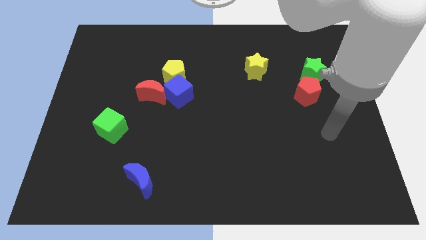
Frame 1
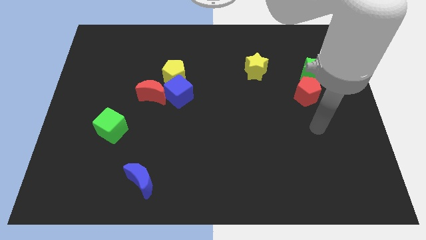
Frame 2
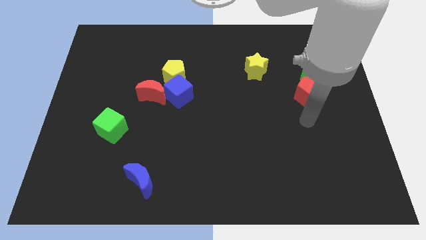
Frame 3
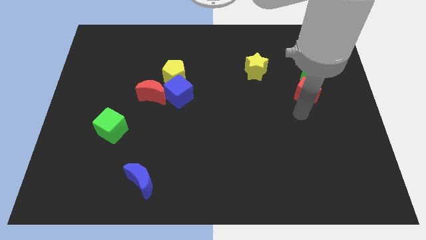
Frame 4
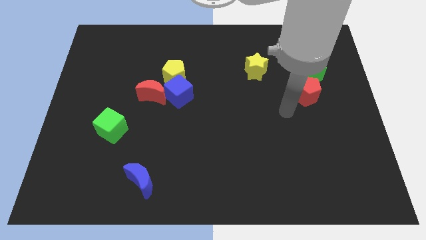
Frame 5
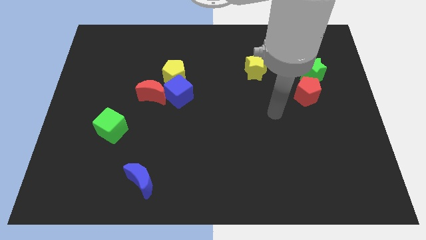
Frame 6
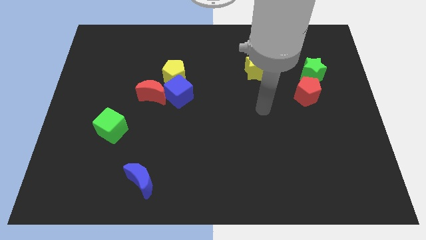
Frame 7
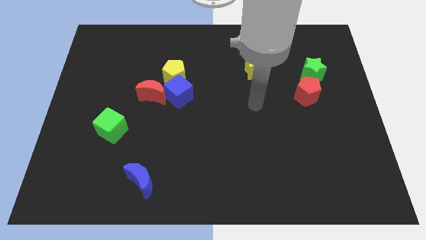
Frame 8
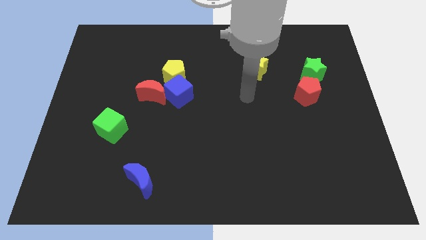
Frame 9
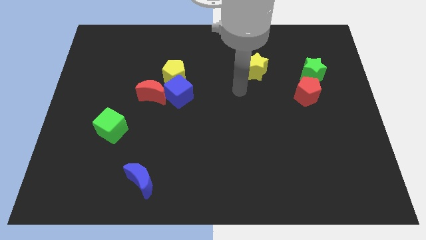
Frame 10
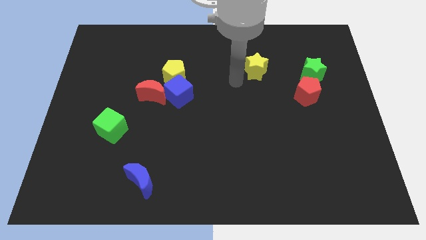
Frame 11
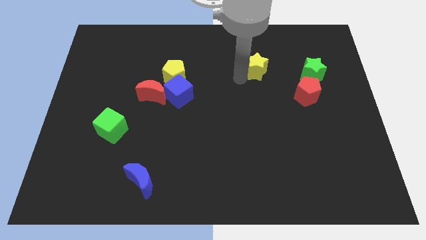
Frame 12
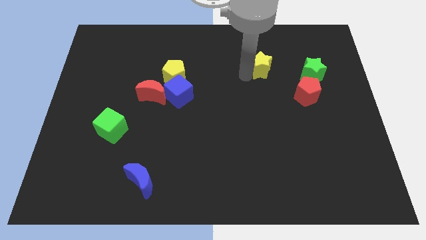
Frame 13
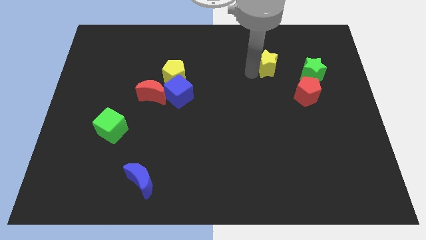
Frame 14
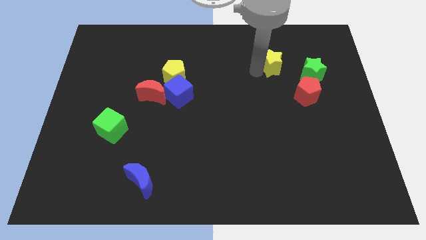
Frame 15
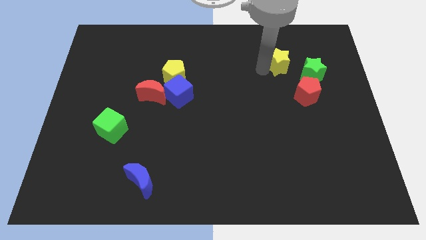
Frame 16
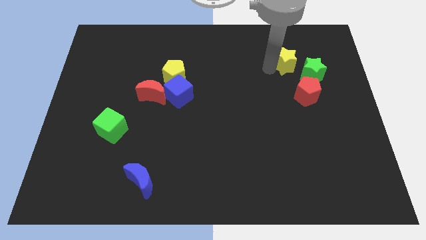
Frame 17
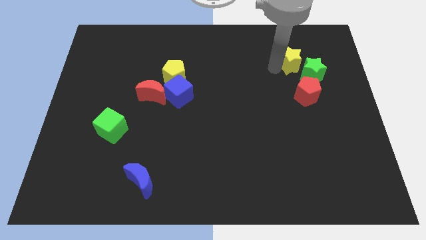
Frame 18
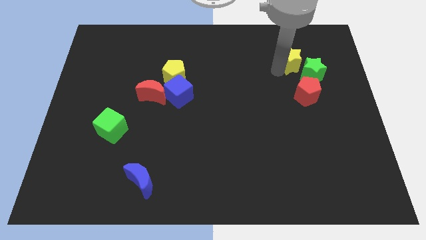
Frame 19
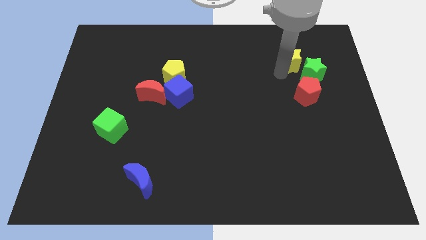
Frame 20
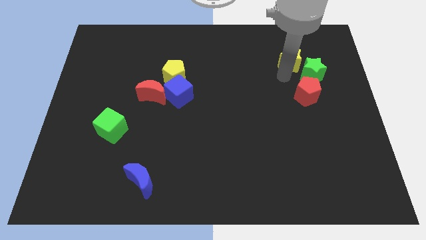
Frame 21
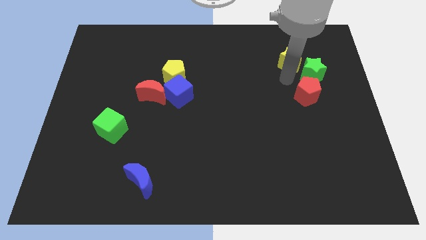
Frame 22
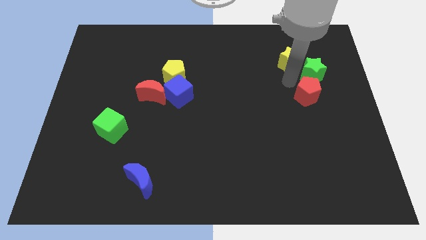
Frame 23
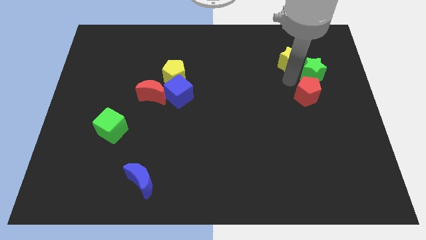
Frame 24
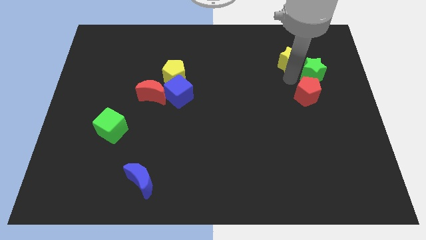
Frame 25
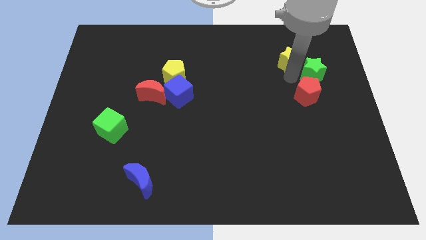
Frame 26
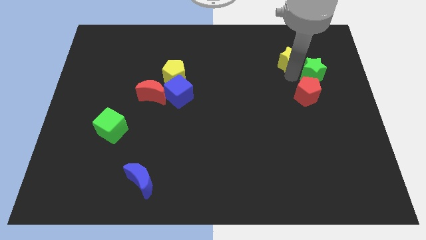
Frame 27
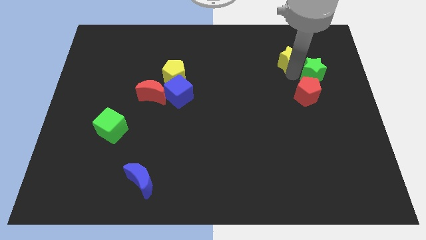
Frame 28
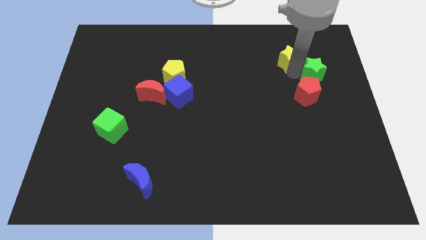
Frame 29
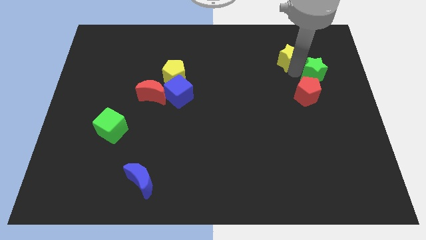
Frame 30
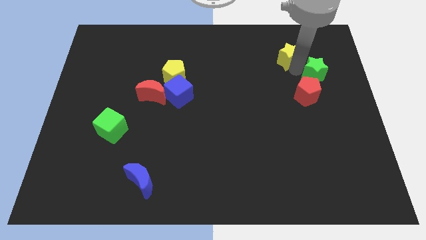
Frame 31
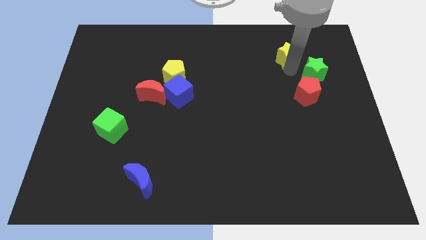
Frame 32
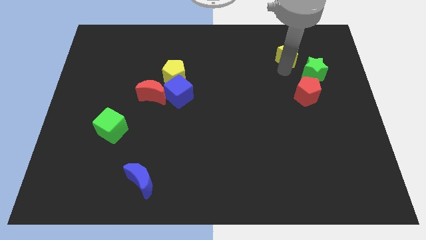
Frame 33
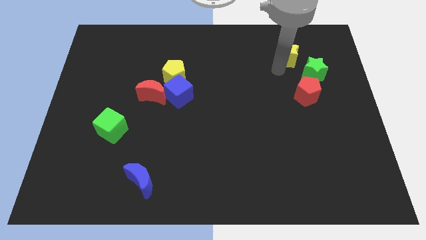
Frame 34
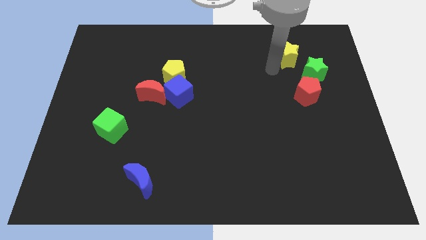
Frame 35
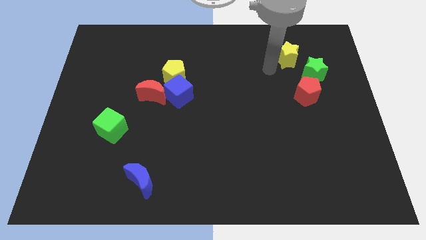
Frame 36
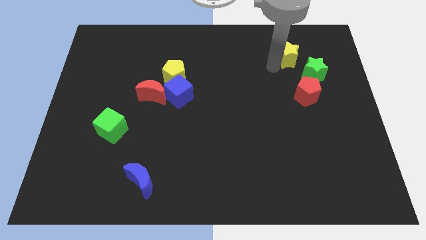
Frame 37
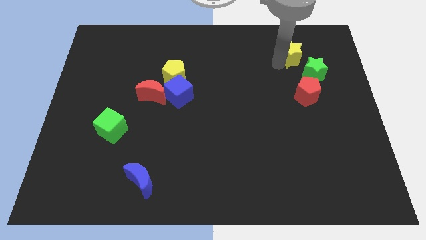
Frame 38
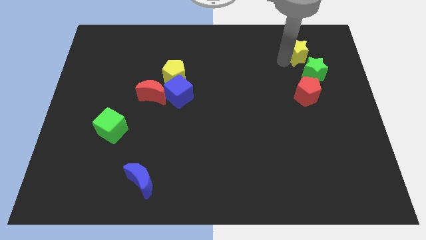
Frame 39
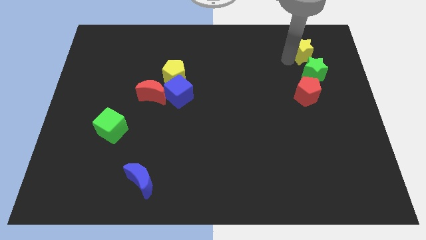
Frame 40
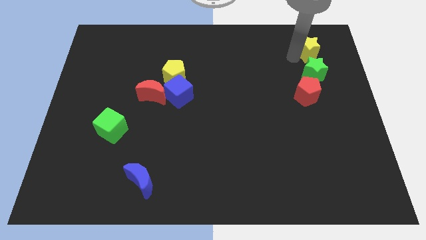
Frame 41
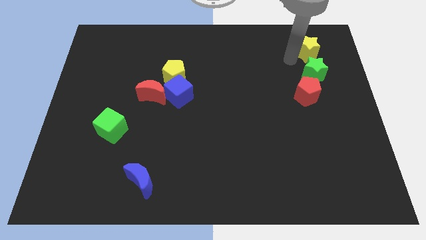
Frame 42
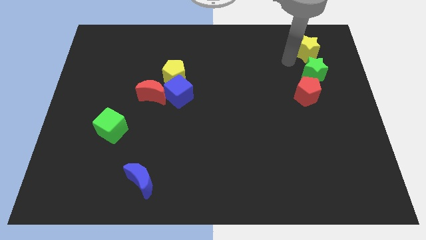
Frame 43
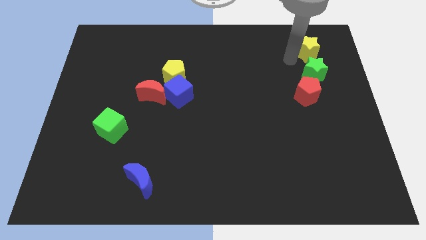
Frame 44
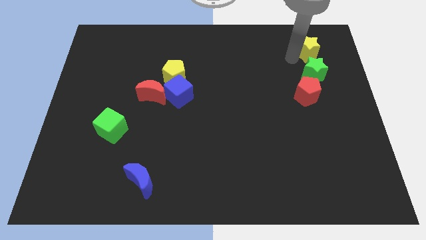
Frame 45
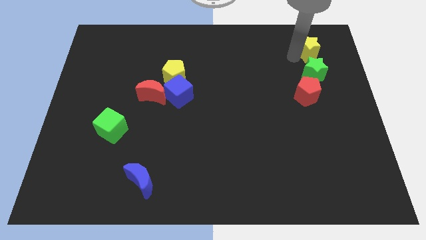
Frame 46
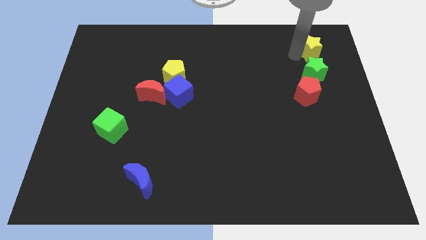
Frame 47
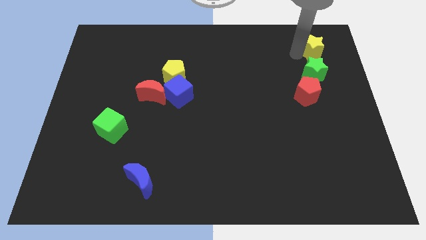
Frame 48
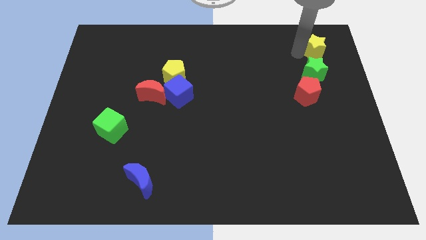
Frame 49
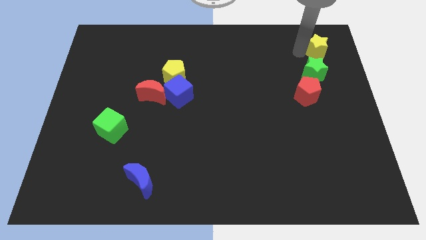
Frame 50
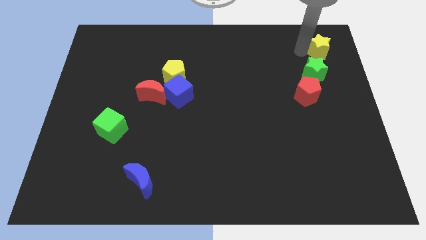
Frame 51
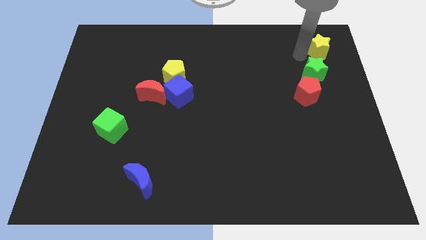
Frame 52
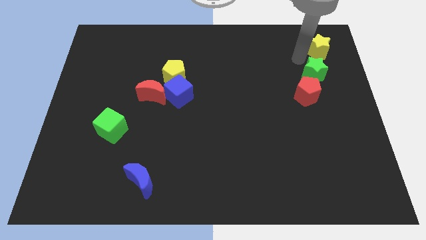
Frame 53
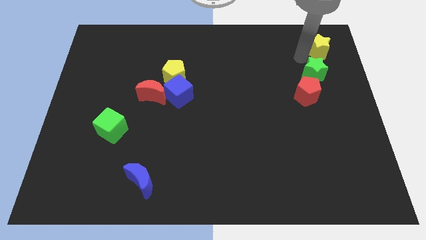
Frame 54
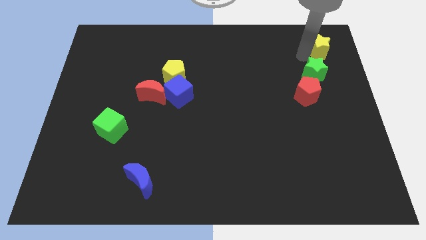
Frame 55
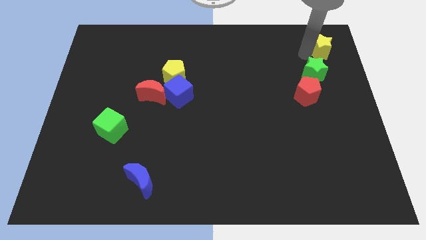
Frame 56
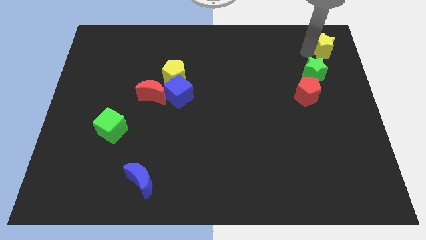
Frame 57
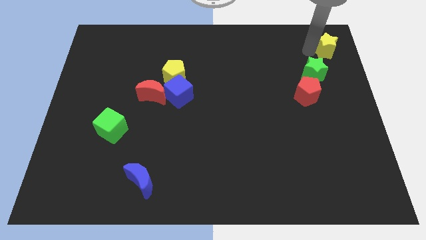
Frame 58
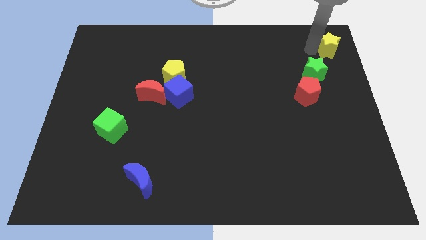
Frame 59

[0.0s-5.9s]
move the yellow star to the upper right corner
